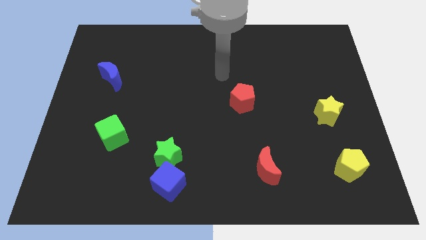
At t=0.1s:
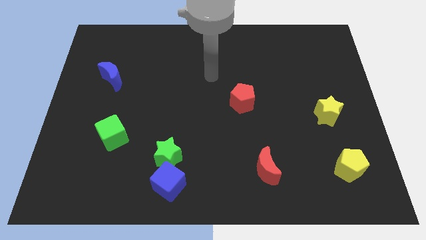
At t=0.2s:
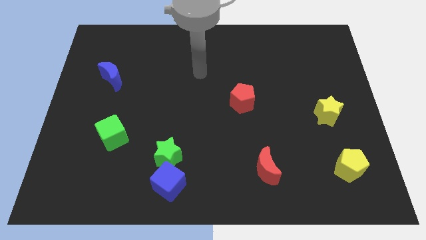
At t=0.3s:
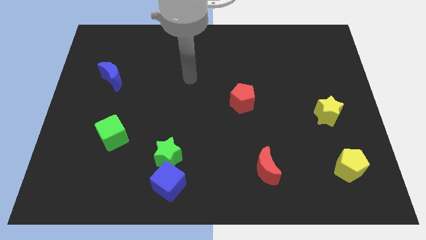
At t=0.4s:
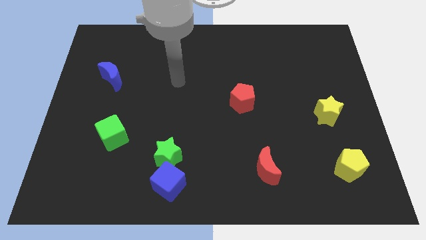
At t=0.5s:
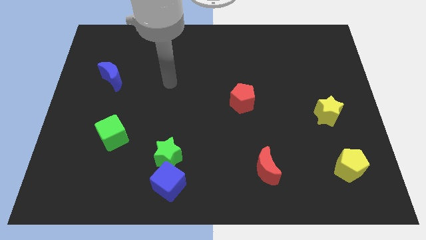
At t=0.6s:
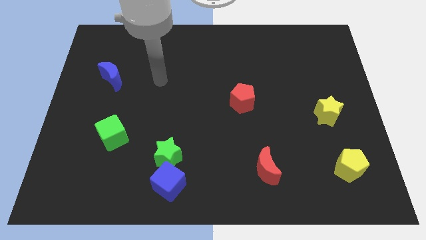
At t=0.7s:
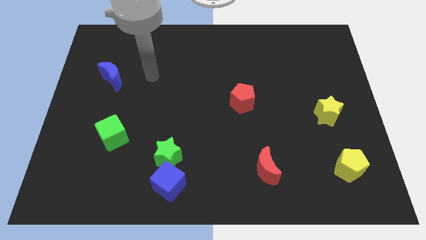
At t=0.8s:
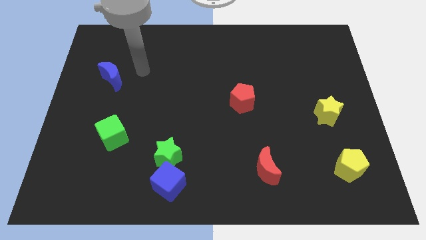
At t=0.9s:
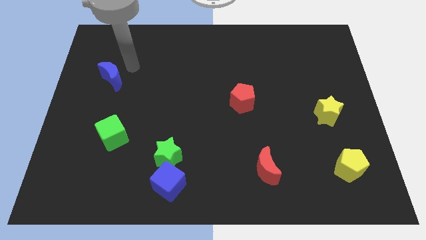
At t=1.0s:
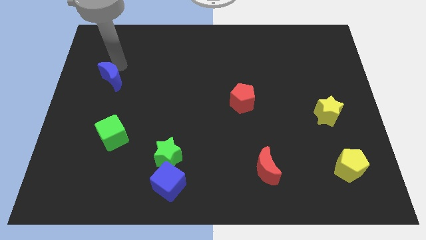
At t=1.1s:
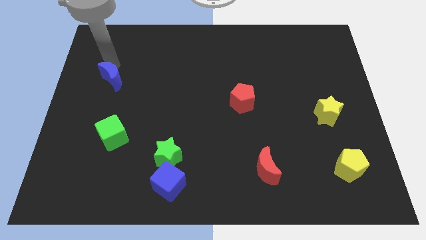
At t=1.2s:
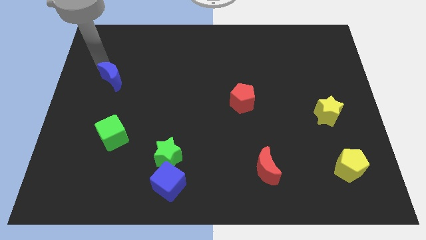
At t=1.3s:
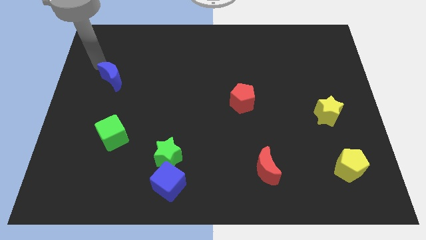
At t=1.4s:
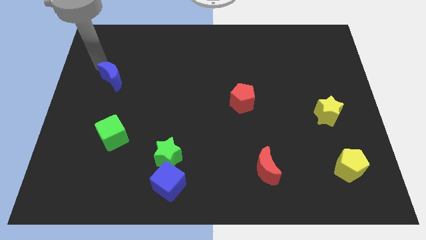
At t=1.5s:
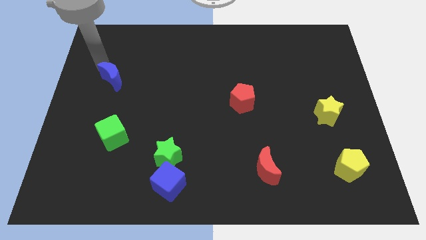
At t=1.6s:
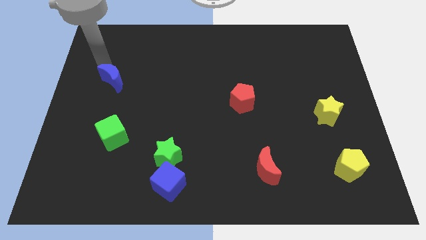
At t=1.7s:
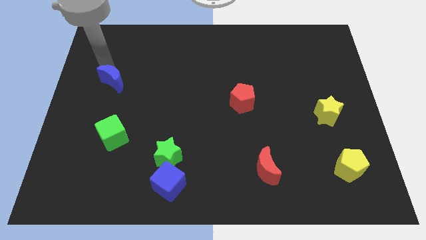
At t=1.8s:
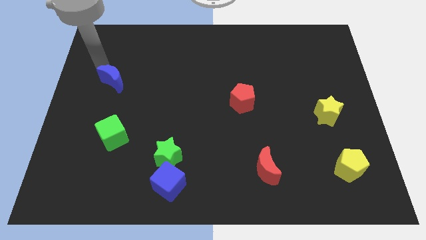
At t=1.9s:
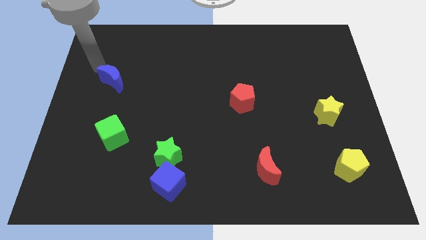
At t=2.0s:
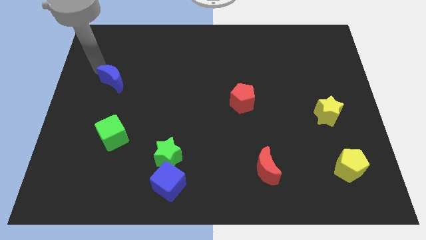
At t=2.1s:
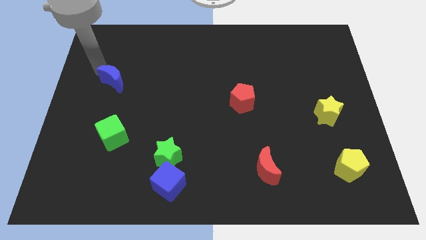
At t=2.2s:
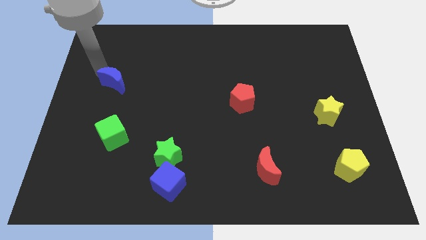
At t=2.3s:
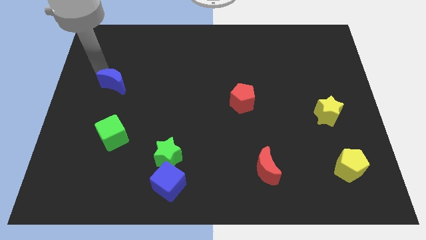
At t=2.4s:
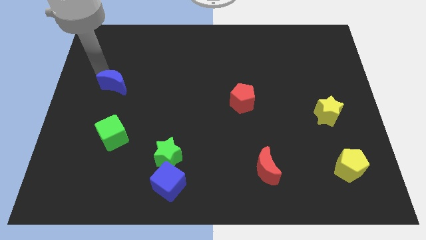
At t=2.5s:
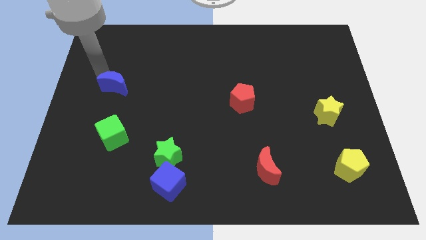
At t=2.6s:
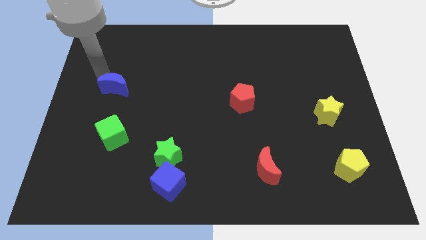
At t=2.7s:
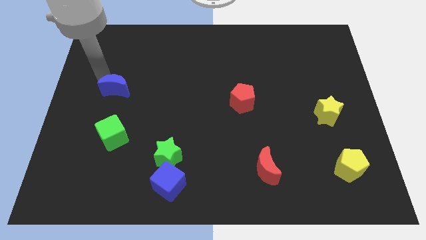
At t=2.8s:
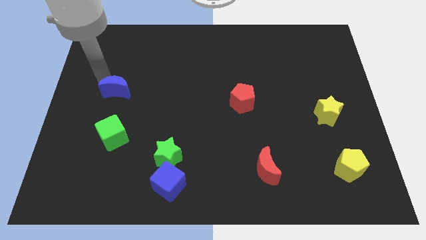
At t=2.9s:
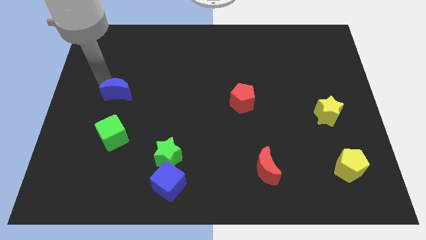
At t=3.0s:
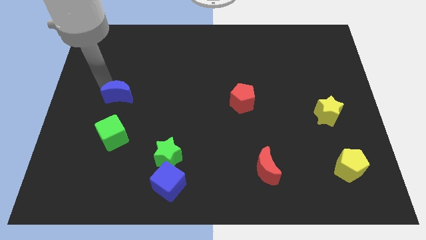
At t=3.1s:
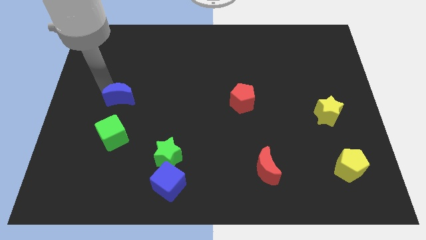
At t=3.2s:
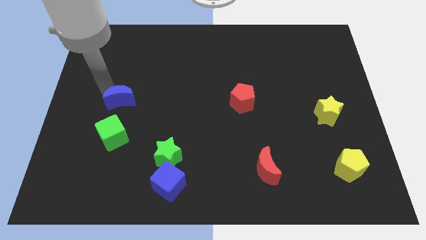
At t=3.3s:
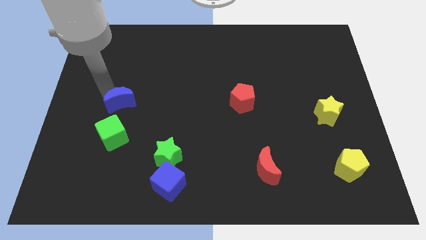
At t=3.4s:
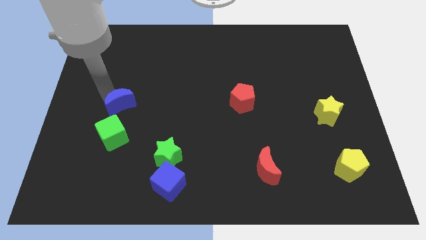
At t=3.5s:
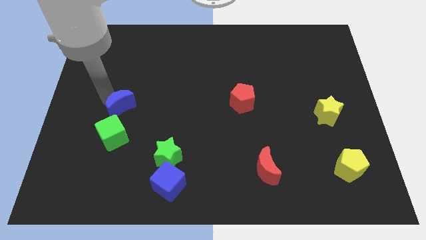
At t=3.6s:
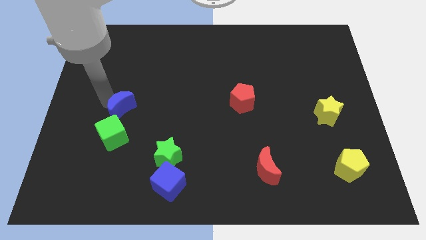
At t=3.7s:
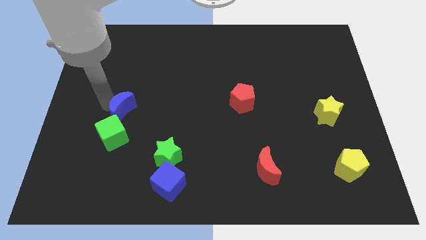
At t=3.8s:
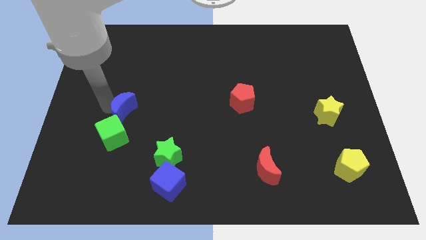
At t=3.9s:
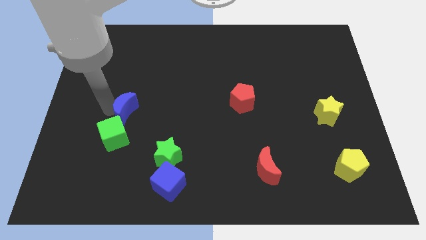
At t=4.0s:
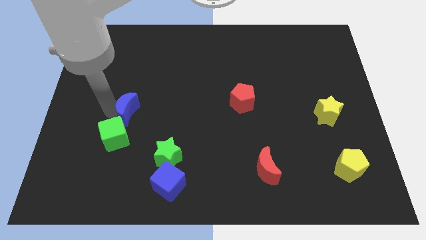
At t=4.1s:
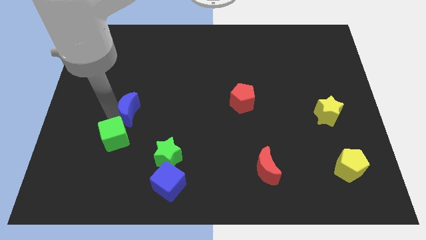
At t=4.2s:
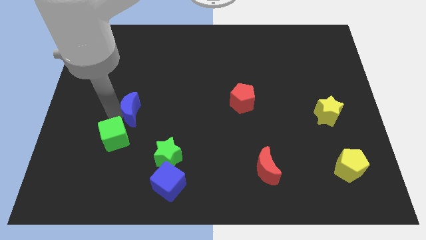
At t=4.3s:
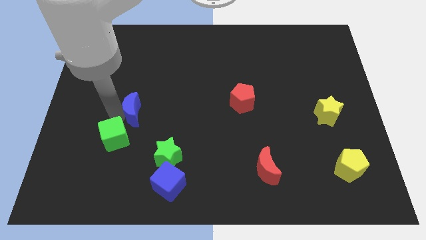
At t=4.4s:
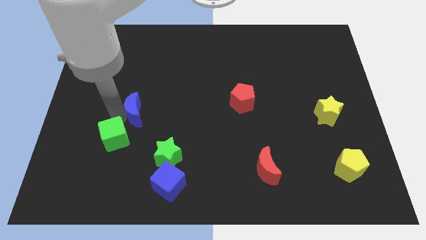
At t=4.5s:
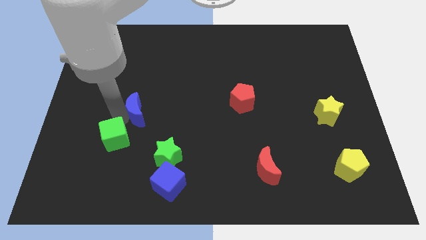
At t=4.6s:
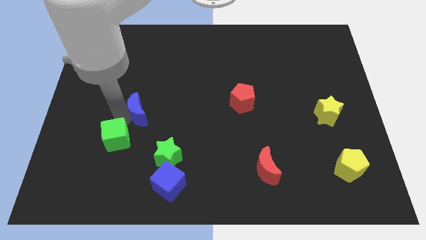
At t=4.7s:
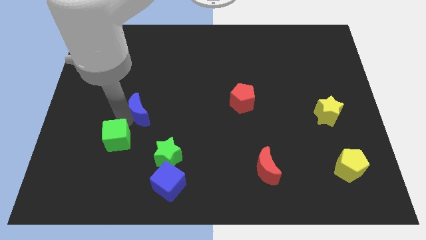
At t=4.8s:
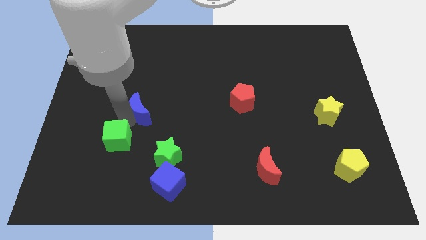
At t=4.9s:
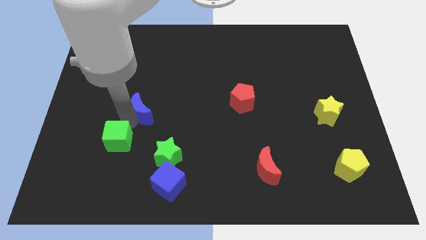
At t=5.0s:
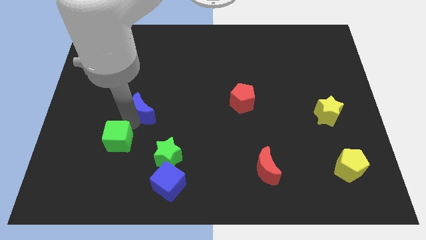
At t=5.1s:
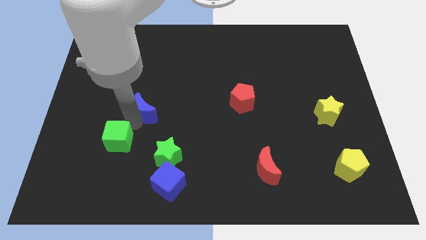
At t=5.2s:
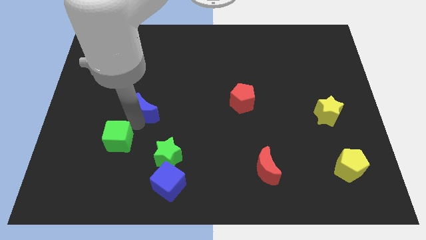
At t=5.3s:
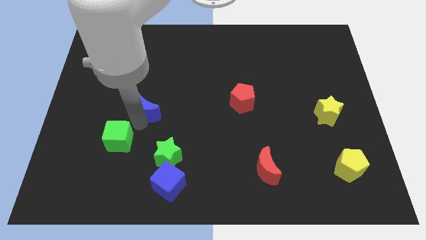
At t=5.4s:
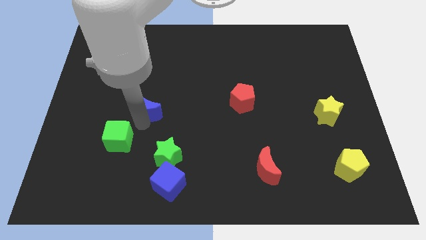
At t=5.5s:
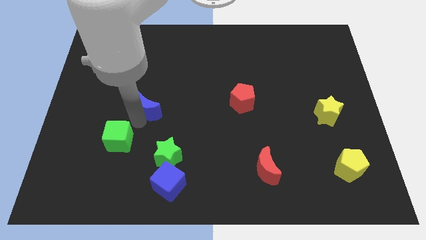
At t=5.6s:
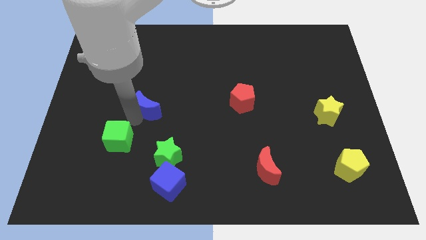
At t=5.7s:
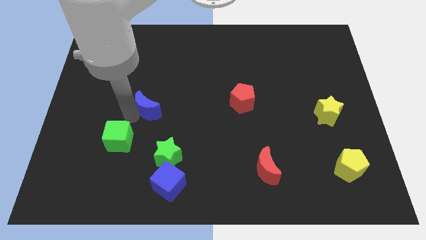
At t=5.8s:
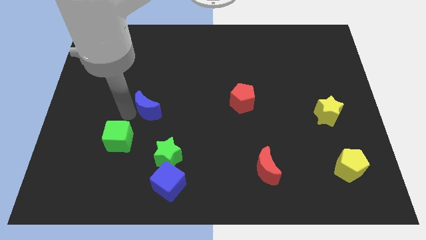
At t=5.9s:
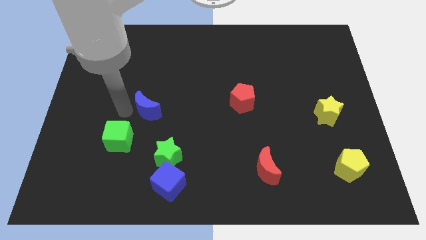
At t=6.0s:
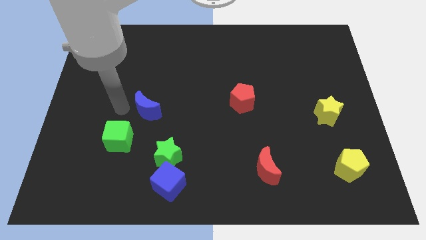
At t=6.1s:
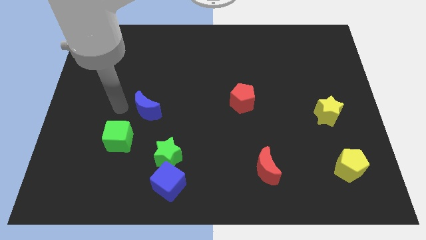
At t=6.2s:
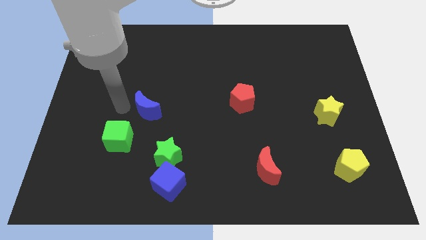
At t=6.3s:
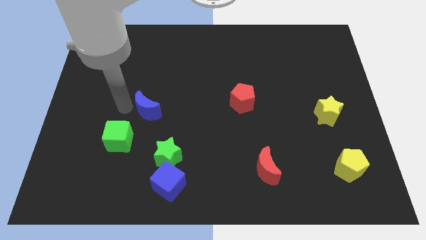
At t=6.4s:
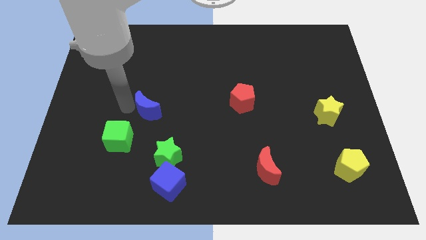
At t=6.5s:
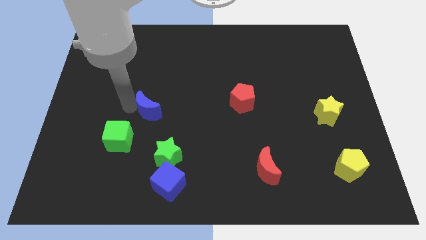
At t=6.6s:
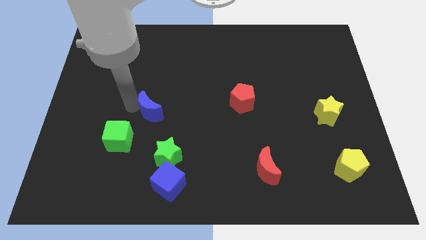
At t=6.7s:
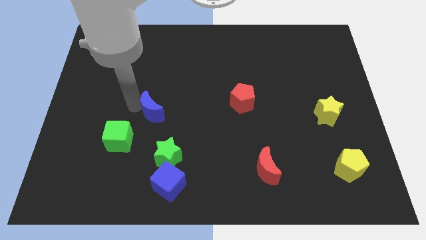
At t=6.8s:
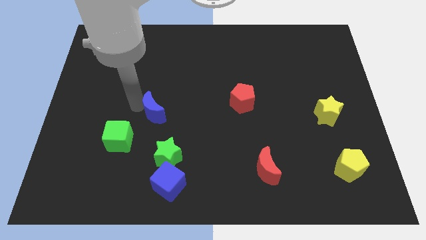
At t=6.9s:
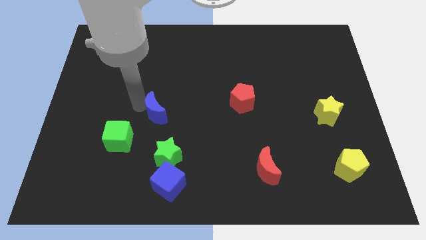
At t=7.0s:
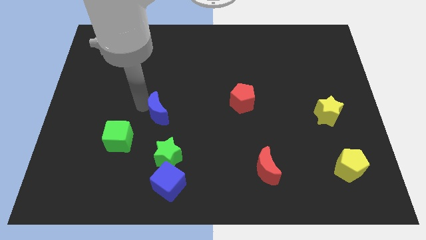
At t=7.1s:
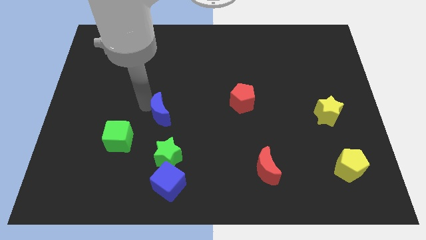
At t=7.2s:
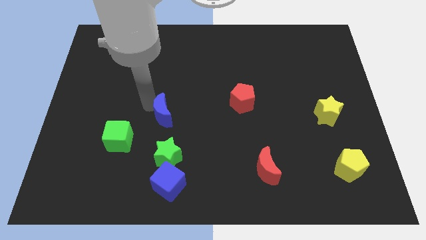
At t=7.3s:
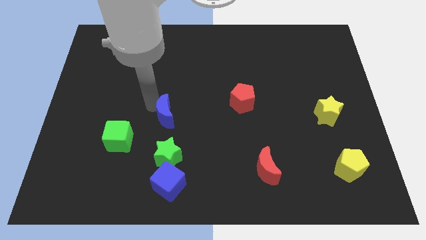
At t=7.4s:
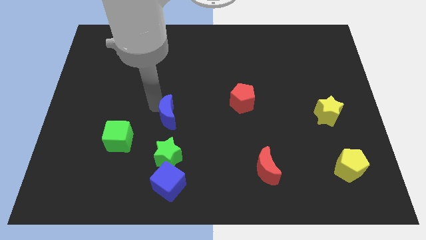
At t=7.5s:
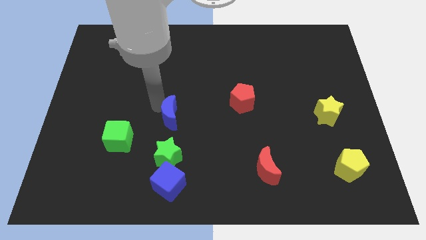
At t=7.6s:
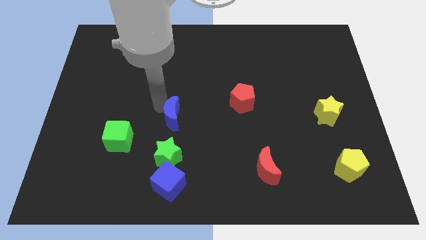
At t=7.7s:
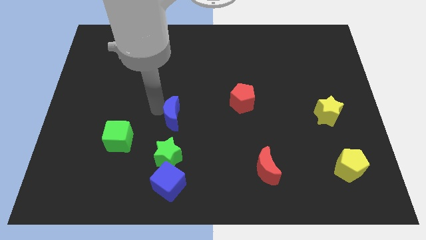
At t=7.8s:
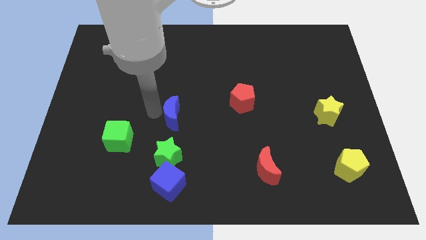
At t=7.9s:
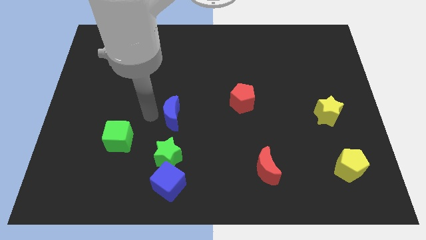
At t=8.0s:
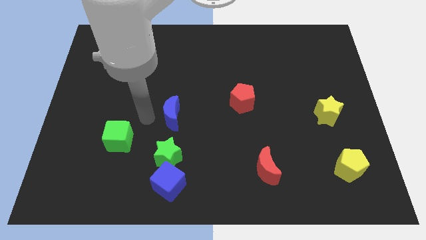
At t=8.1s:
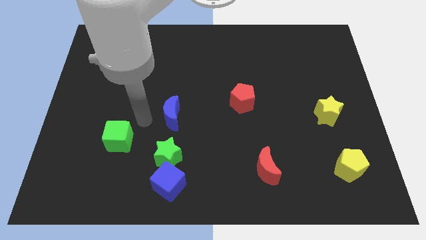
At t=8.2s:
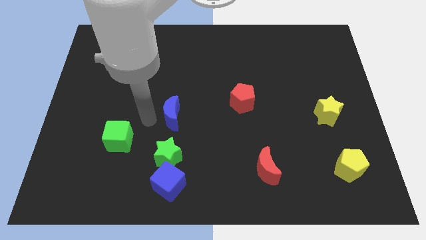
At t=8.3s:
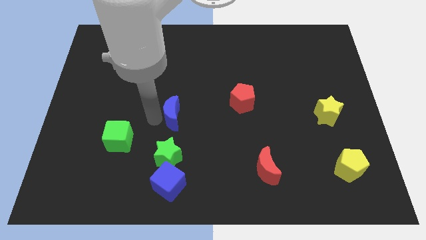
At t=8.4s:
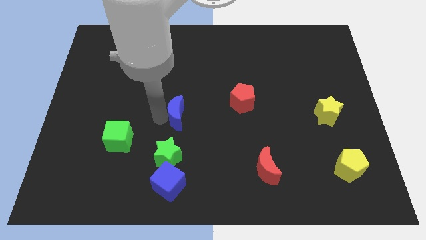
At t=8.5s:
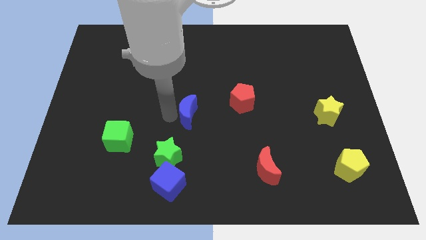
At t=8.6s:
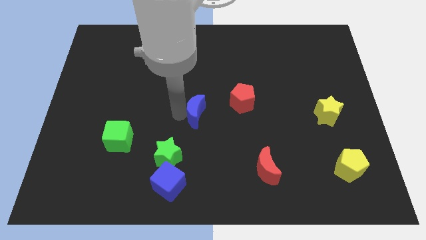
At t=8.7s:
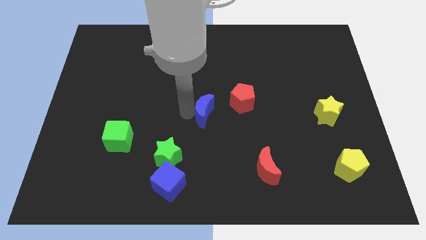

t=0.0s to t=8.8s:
put the blue moon to the bottom left side of the red pentagon

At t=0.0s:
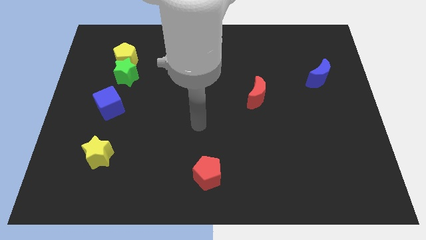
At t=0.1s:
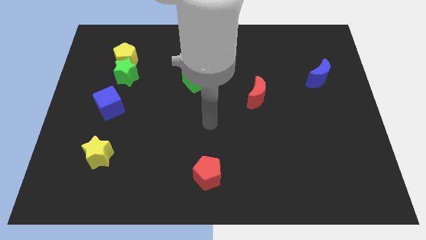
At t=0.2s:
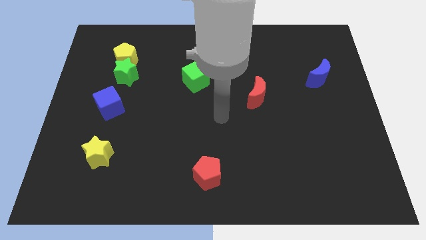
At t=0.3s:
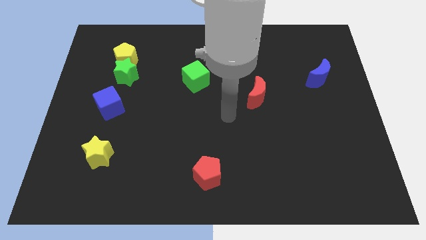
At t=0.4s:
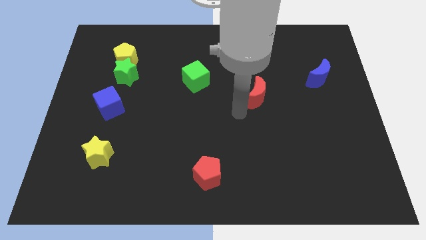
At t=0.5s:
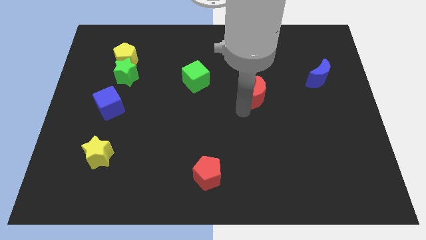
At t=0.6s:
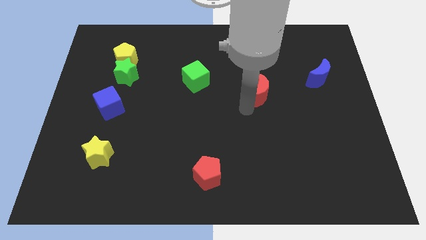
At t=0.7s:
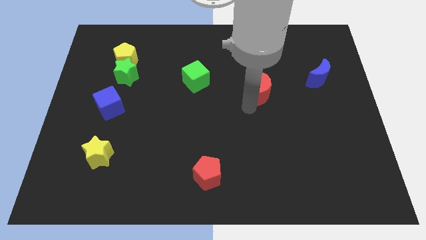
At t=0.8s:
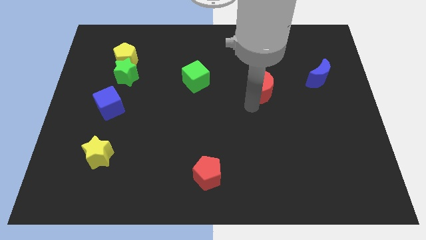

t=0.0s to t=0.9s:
push the red moon to the left side of the blue moon
